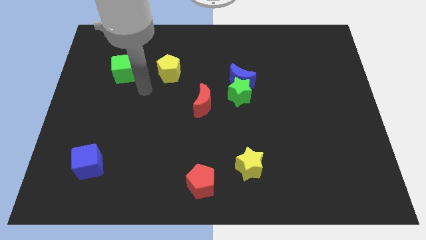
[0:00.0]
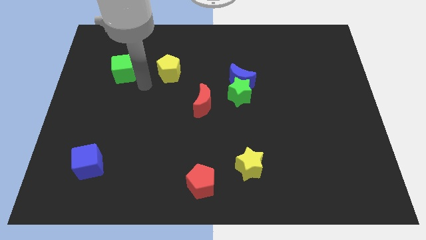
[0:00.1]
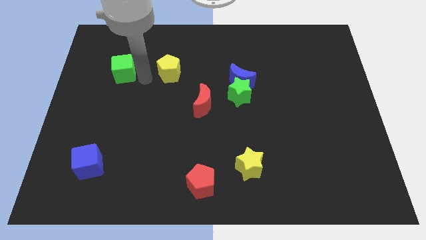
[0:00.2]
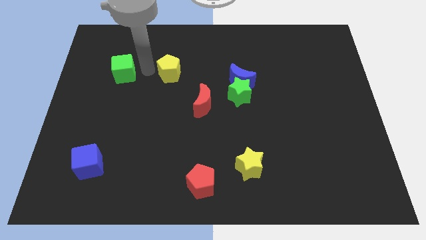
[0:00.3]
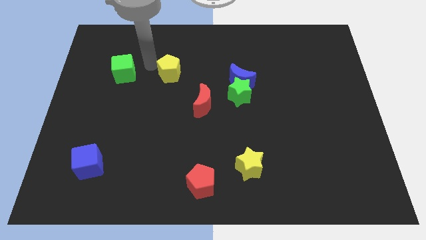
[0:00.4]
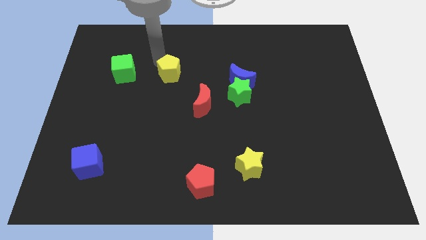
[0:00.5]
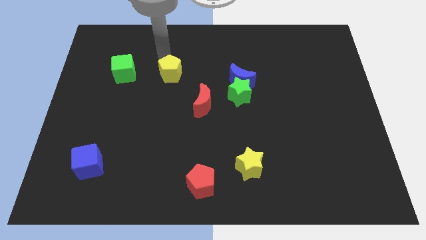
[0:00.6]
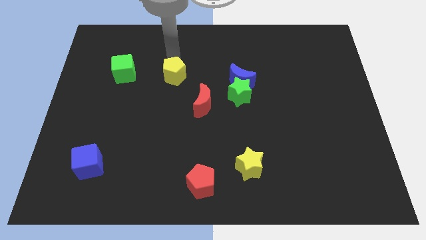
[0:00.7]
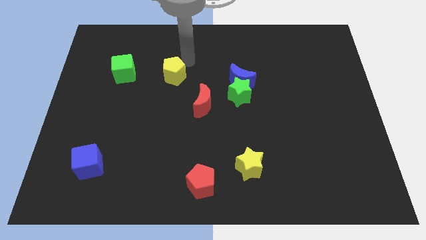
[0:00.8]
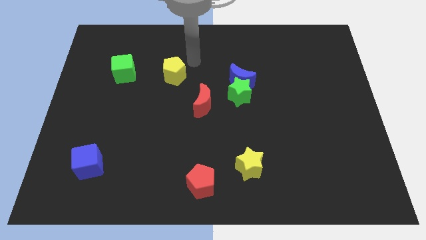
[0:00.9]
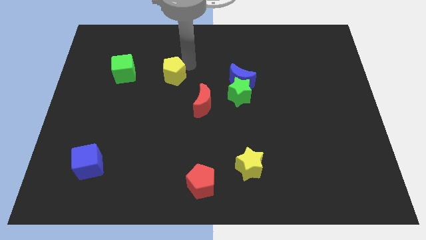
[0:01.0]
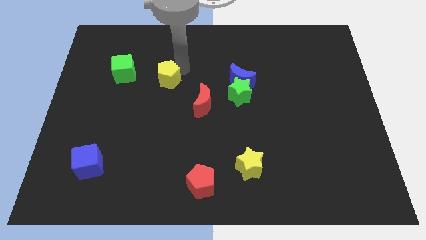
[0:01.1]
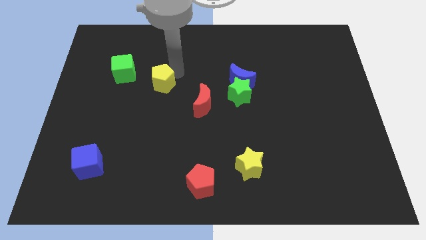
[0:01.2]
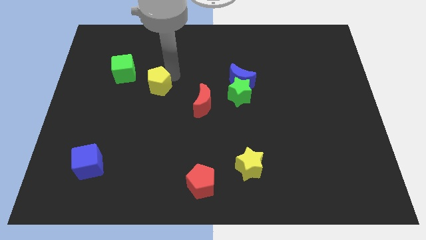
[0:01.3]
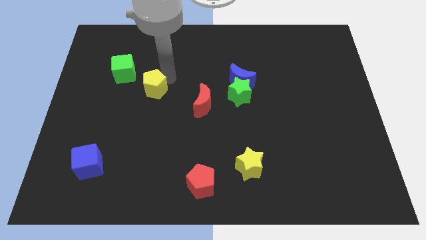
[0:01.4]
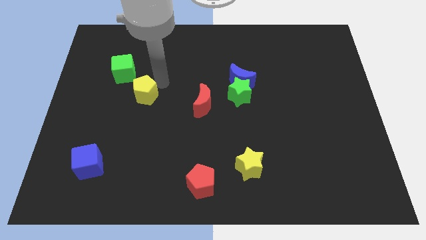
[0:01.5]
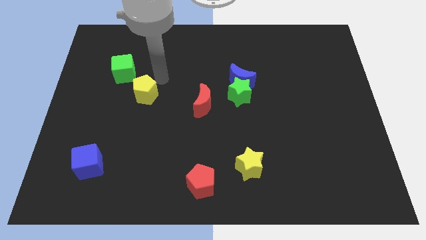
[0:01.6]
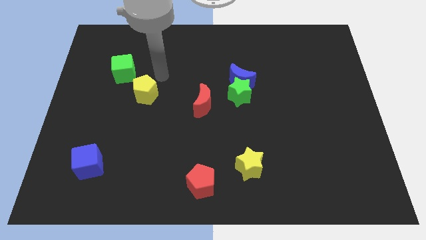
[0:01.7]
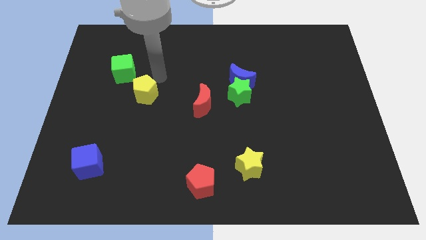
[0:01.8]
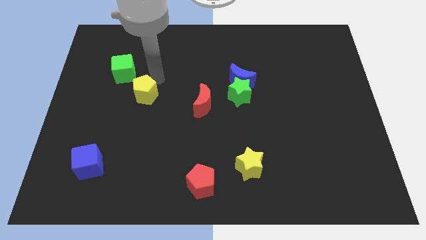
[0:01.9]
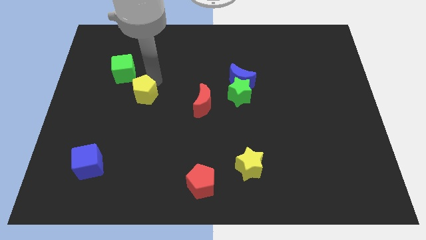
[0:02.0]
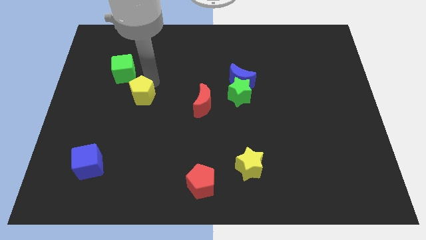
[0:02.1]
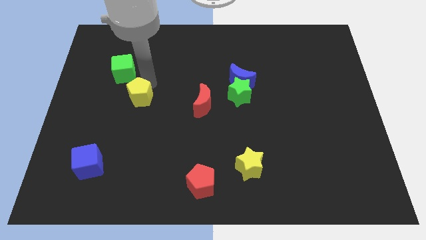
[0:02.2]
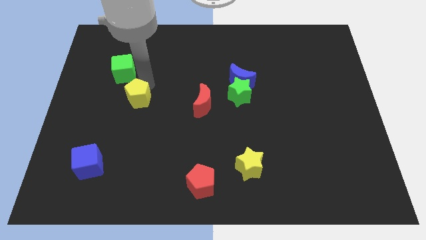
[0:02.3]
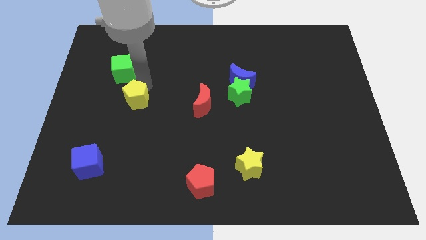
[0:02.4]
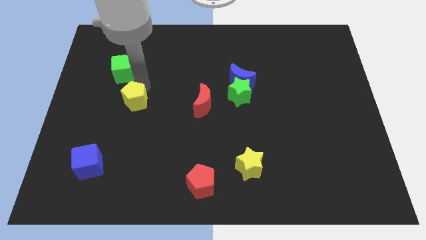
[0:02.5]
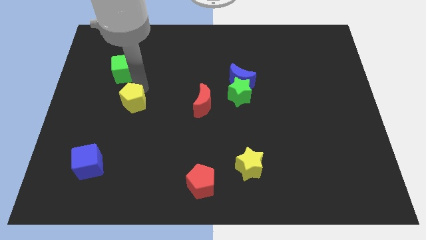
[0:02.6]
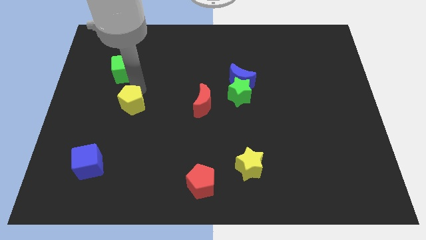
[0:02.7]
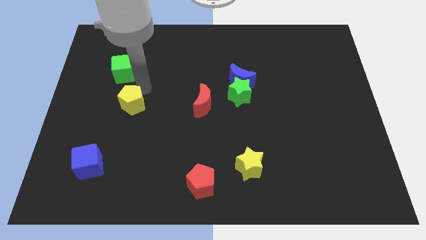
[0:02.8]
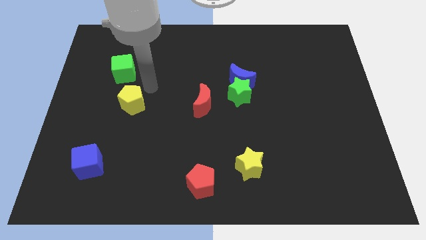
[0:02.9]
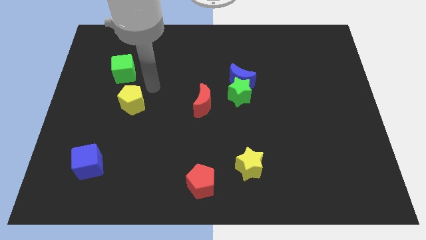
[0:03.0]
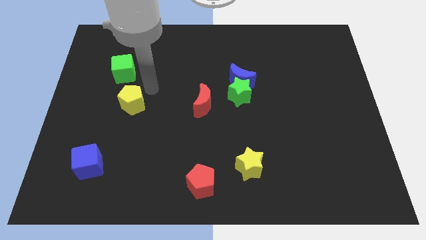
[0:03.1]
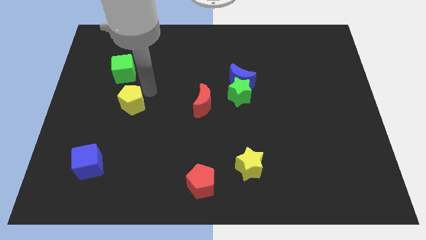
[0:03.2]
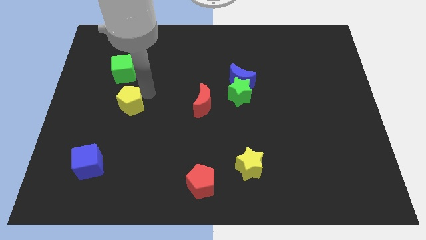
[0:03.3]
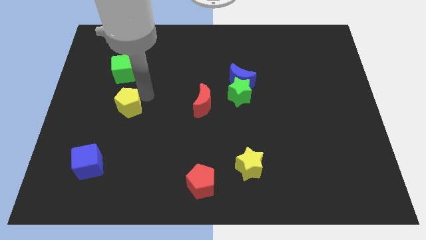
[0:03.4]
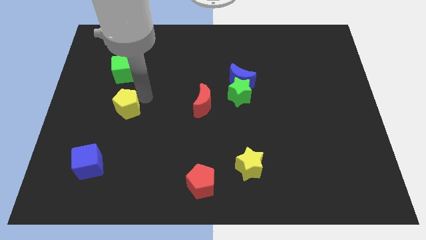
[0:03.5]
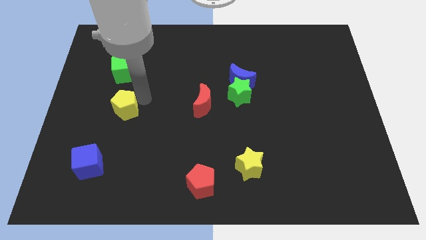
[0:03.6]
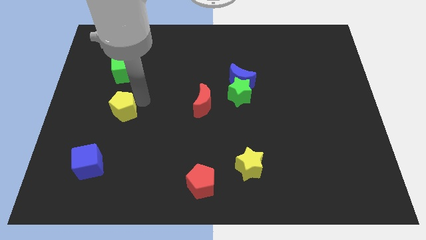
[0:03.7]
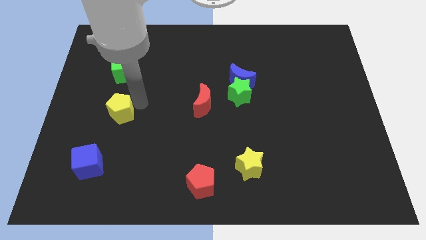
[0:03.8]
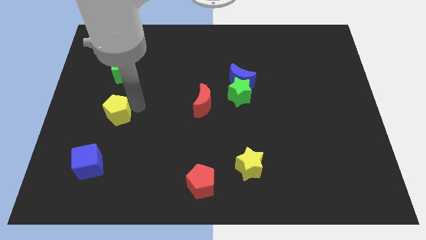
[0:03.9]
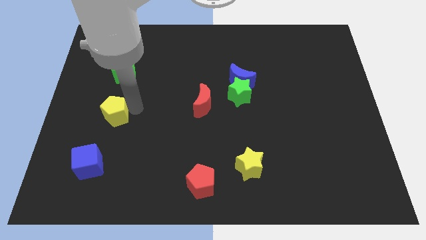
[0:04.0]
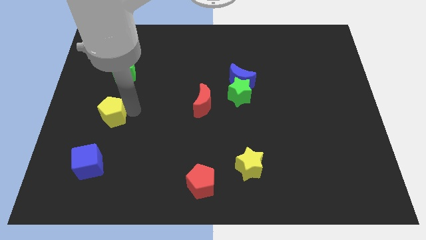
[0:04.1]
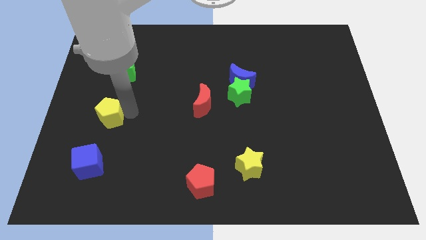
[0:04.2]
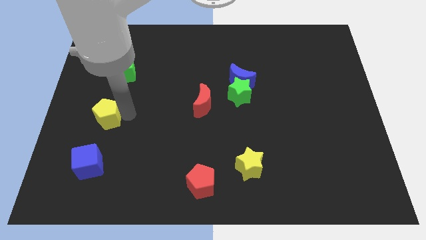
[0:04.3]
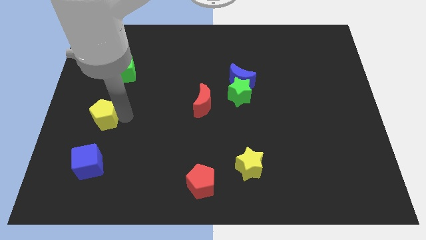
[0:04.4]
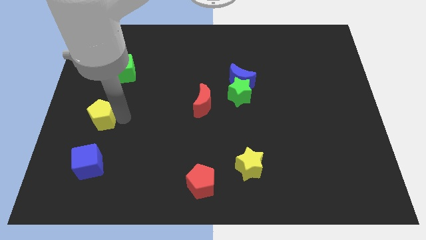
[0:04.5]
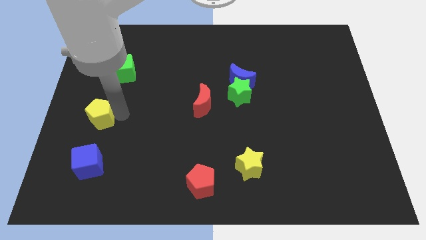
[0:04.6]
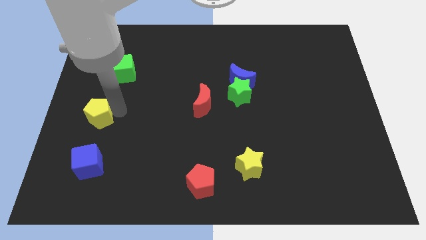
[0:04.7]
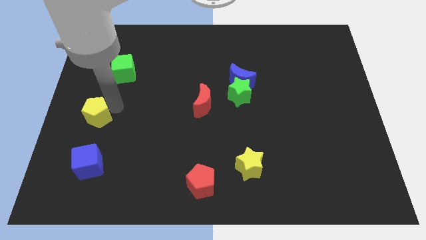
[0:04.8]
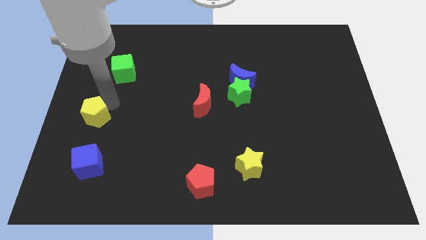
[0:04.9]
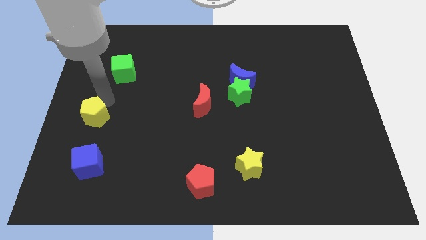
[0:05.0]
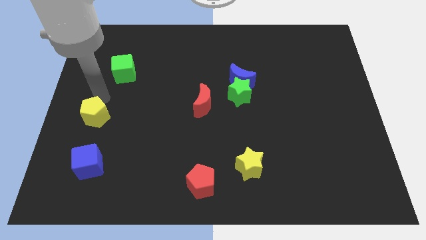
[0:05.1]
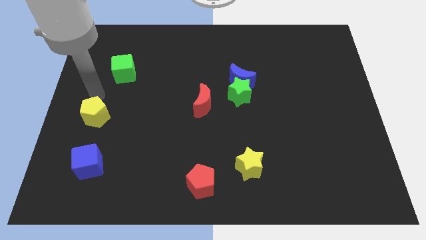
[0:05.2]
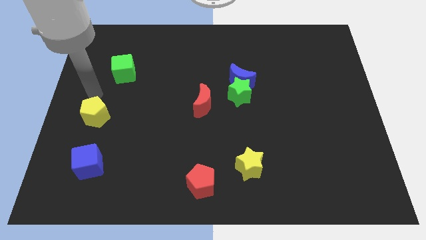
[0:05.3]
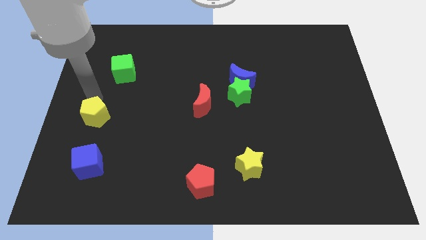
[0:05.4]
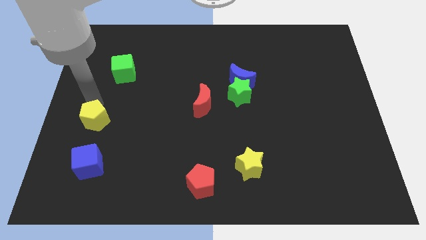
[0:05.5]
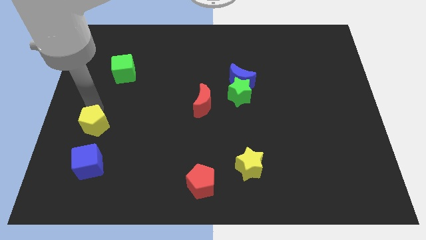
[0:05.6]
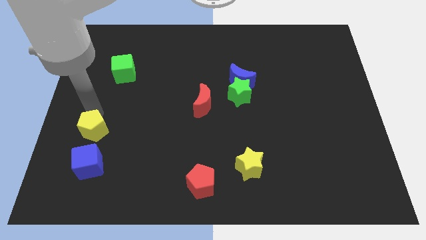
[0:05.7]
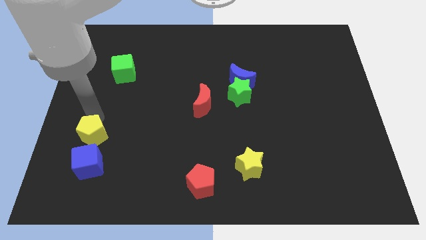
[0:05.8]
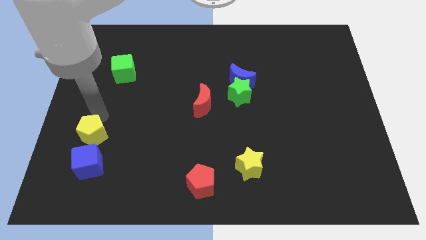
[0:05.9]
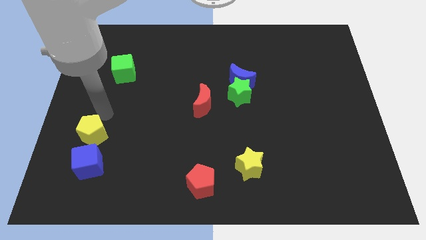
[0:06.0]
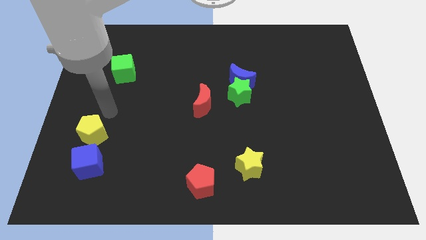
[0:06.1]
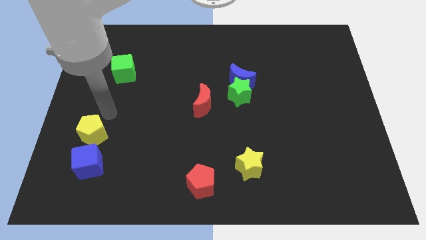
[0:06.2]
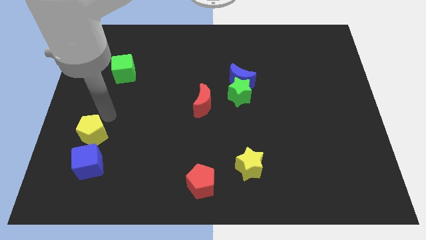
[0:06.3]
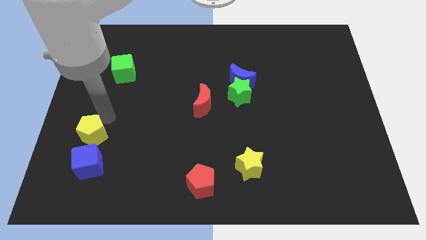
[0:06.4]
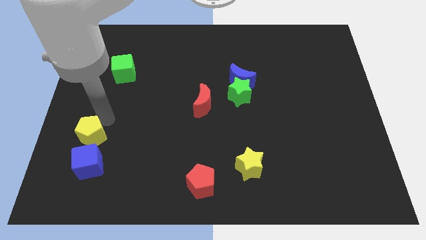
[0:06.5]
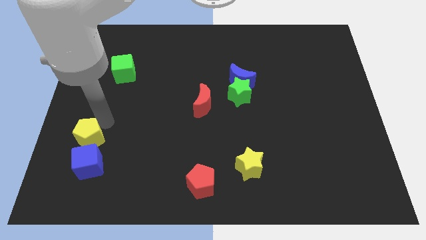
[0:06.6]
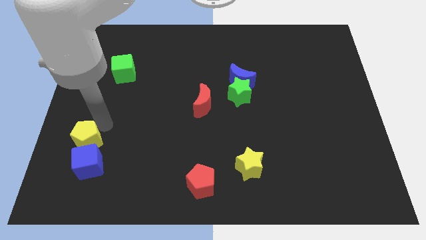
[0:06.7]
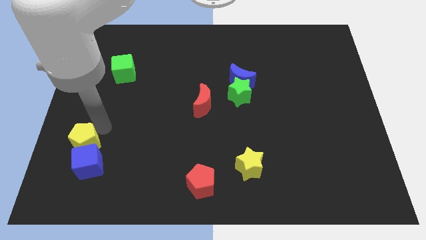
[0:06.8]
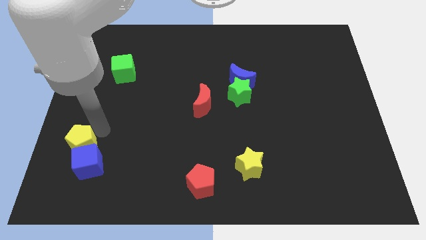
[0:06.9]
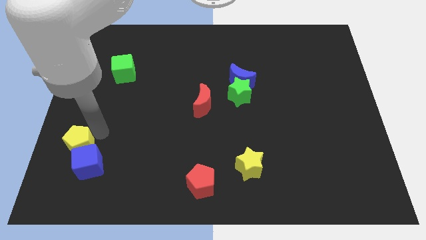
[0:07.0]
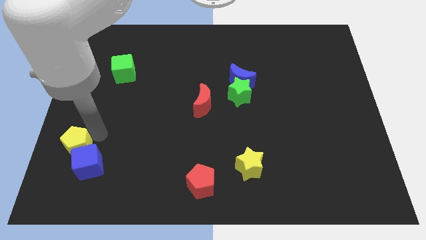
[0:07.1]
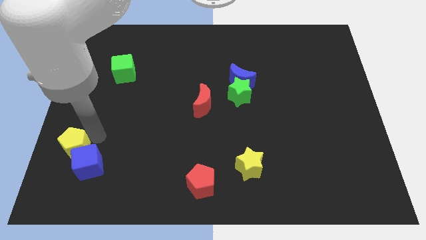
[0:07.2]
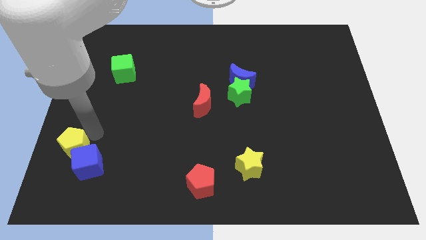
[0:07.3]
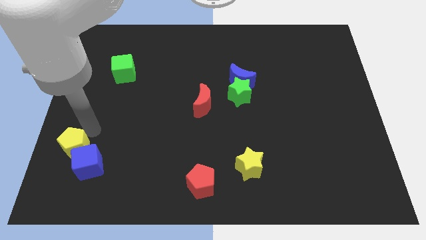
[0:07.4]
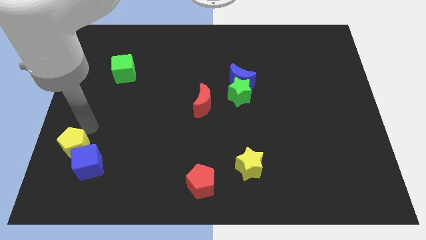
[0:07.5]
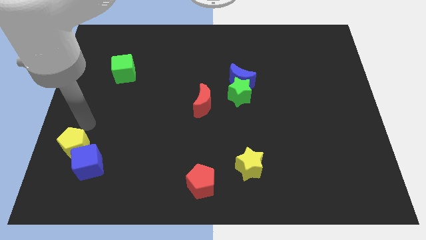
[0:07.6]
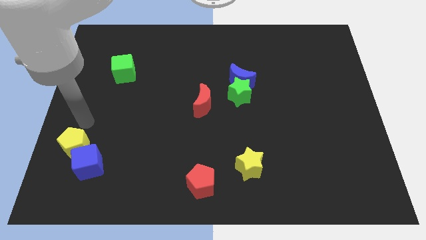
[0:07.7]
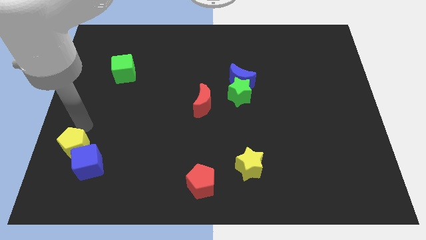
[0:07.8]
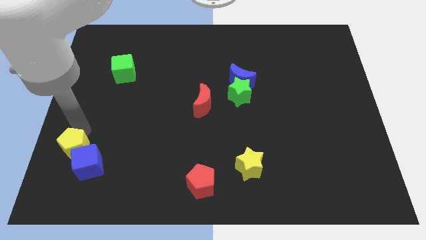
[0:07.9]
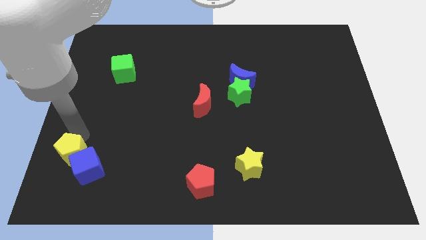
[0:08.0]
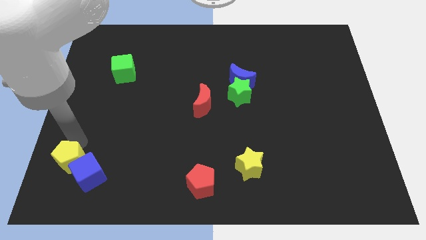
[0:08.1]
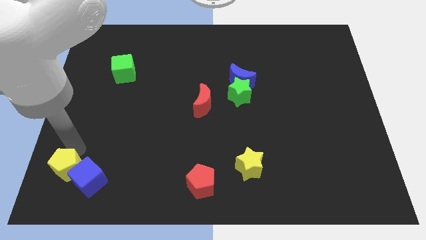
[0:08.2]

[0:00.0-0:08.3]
push the yellow pentagon to the bottom left corner
